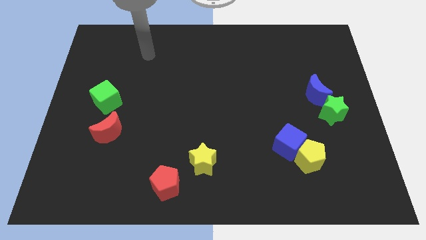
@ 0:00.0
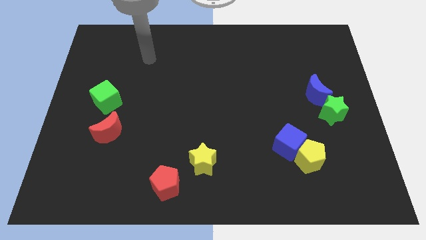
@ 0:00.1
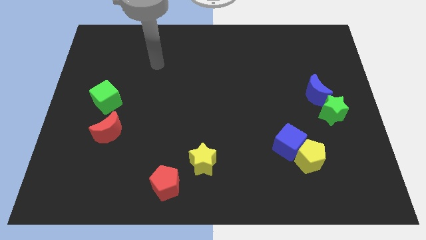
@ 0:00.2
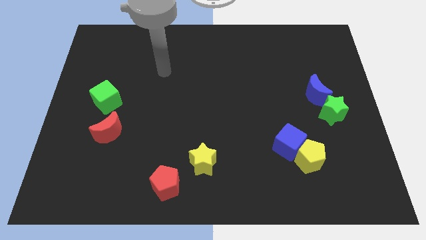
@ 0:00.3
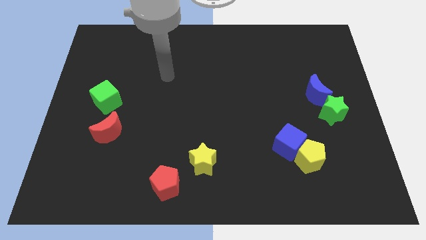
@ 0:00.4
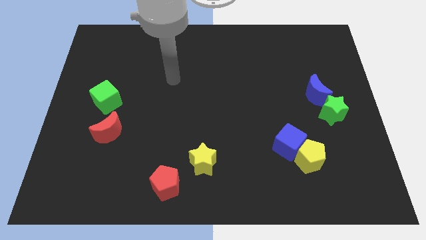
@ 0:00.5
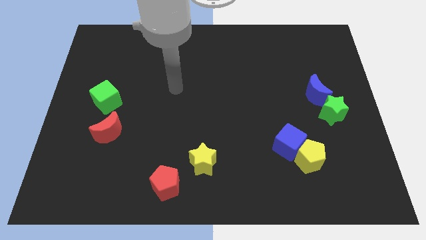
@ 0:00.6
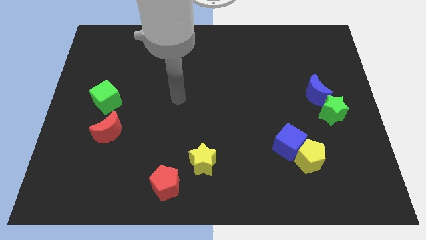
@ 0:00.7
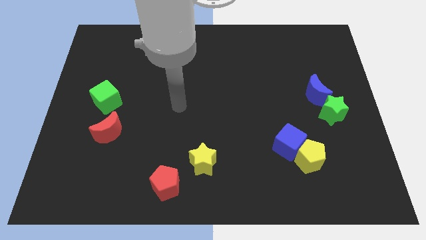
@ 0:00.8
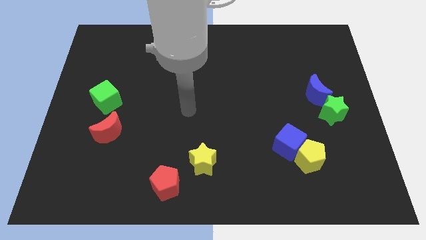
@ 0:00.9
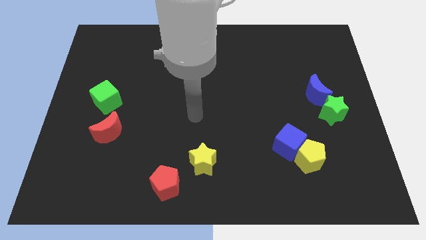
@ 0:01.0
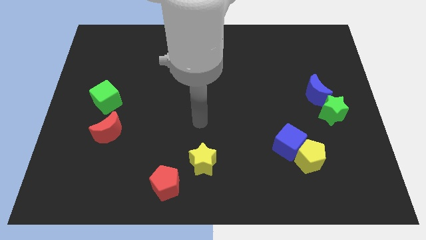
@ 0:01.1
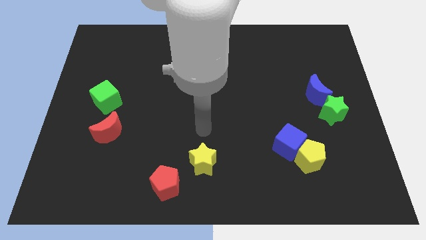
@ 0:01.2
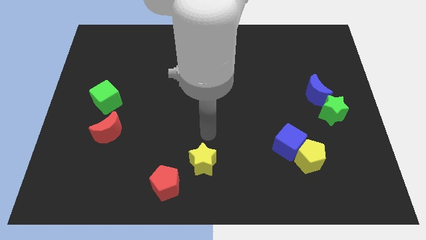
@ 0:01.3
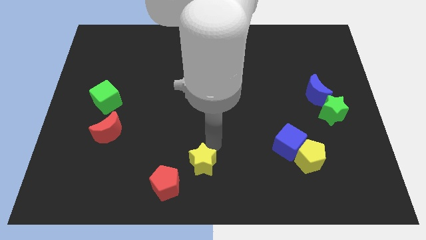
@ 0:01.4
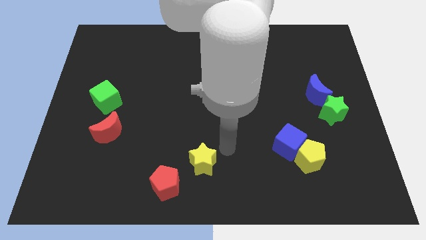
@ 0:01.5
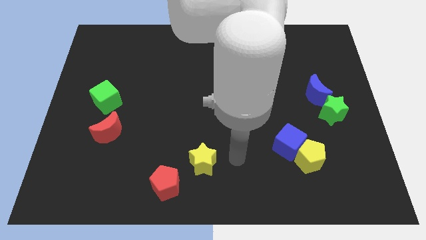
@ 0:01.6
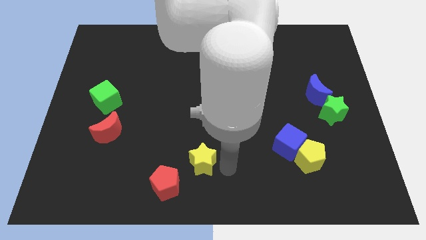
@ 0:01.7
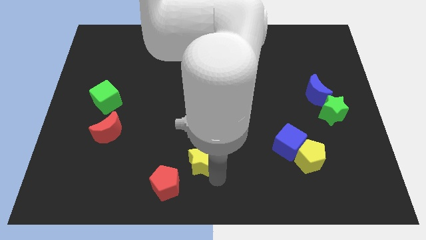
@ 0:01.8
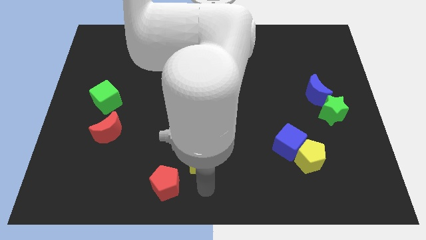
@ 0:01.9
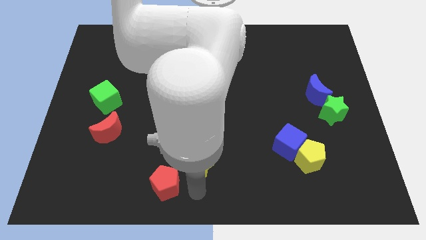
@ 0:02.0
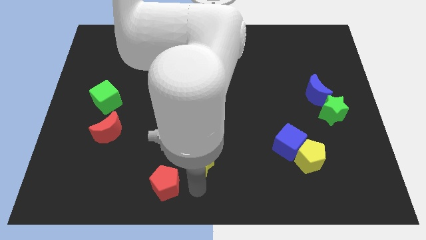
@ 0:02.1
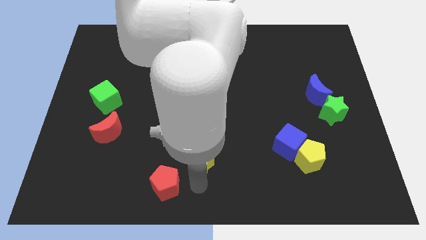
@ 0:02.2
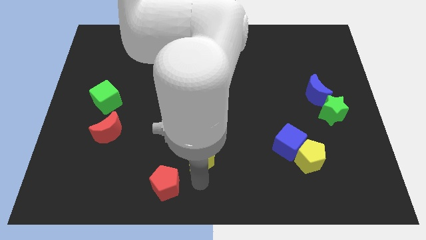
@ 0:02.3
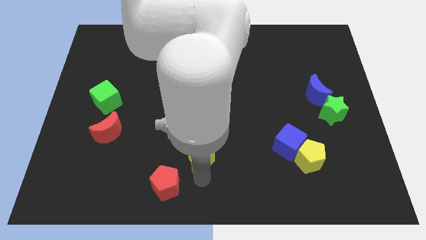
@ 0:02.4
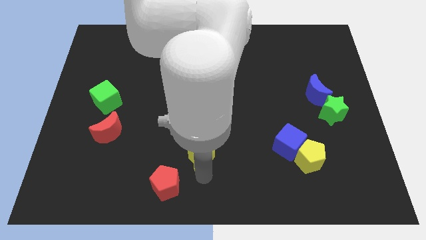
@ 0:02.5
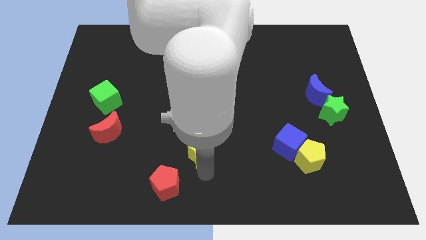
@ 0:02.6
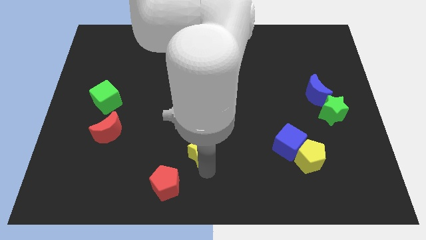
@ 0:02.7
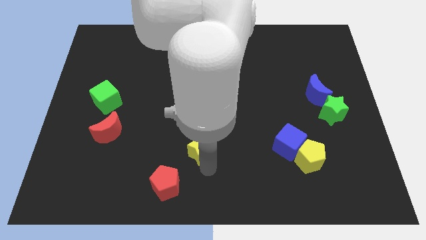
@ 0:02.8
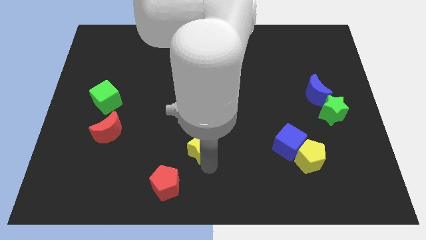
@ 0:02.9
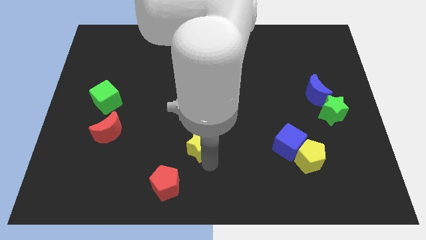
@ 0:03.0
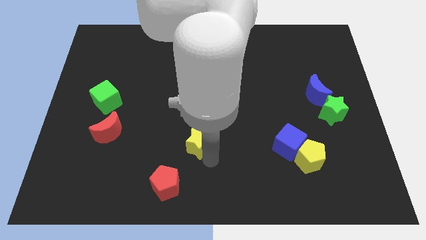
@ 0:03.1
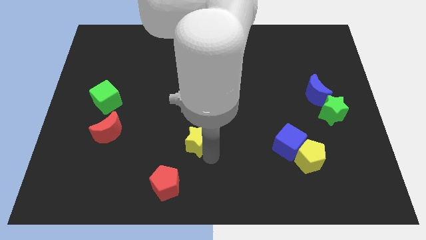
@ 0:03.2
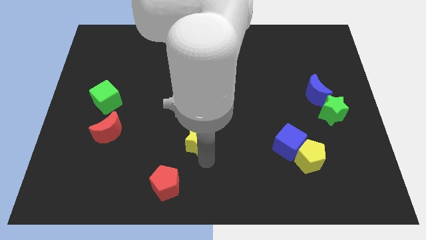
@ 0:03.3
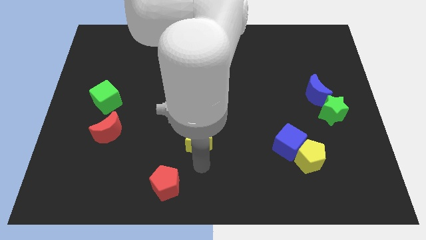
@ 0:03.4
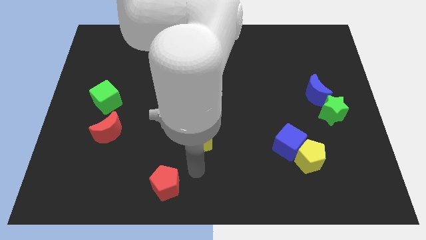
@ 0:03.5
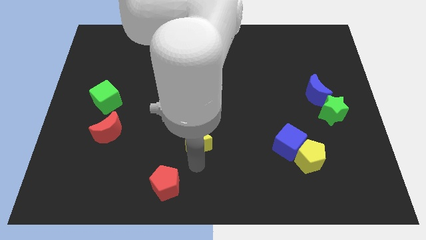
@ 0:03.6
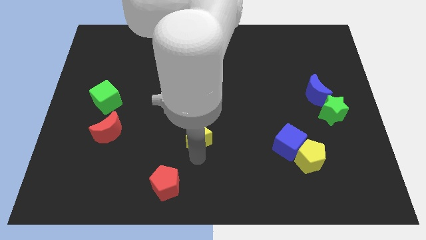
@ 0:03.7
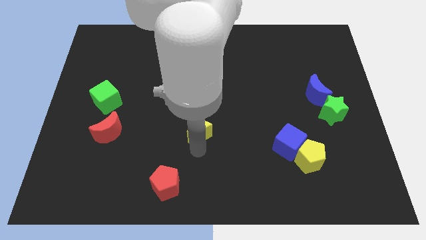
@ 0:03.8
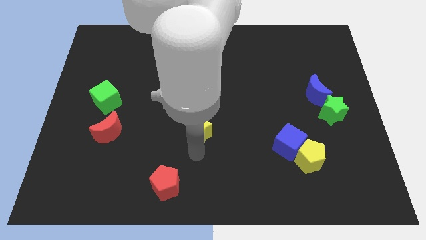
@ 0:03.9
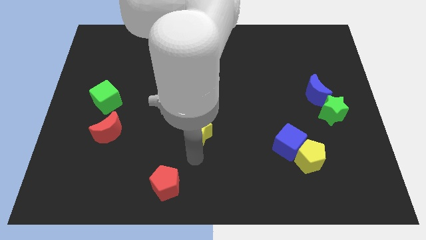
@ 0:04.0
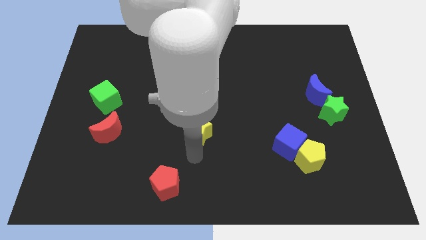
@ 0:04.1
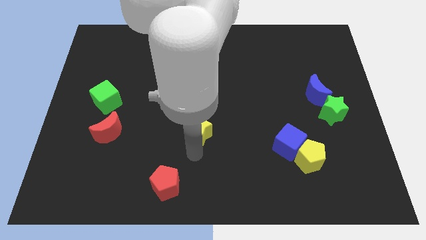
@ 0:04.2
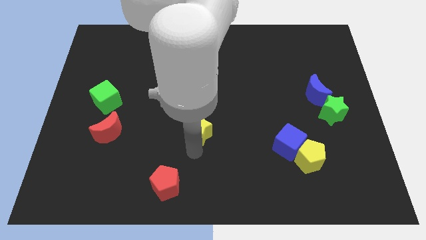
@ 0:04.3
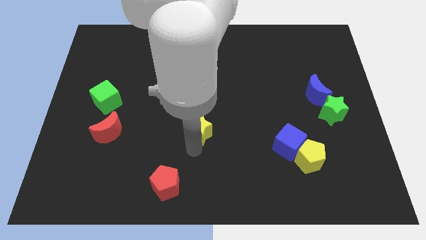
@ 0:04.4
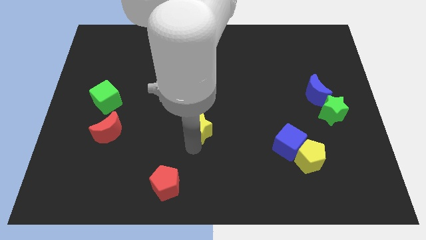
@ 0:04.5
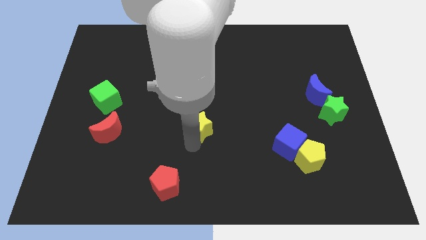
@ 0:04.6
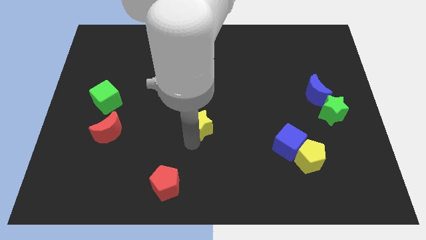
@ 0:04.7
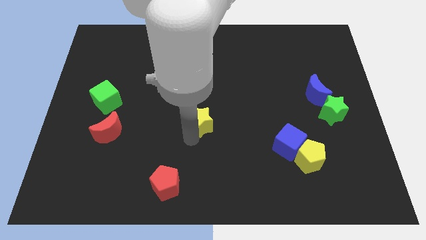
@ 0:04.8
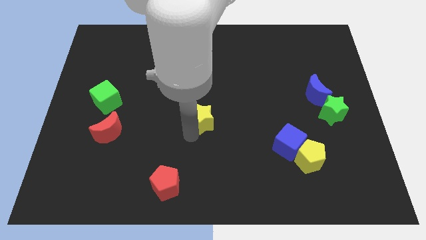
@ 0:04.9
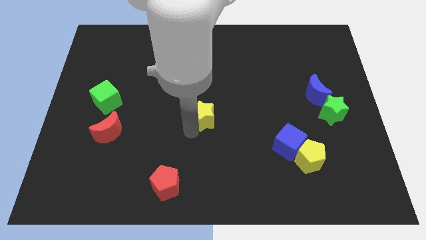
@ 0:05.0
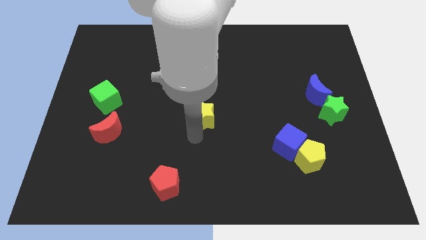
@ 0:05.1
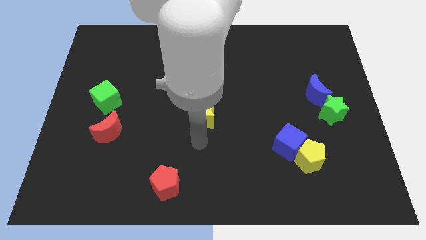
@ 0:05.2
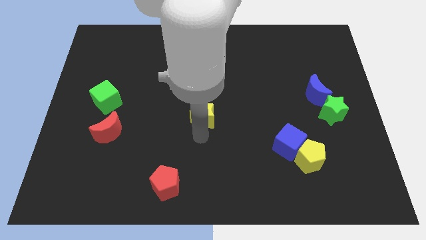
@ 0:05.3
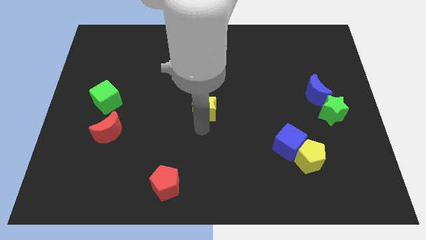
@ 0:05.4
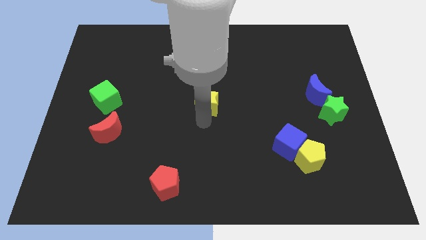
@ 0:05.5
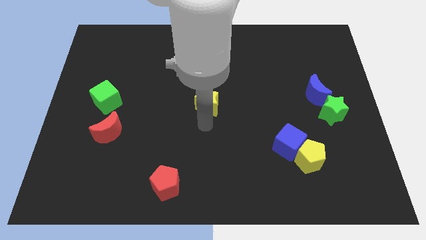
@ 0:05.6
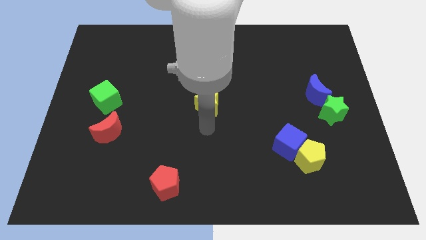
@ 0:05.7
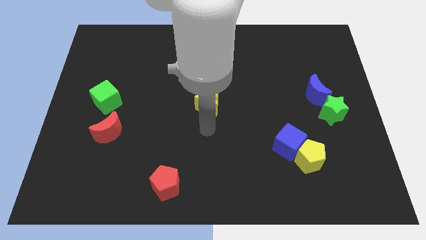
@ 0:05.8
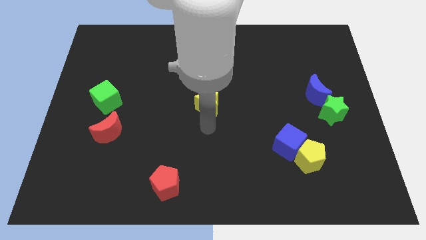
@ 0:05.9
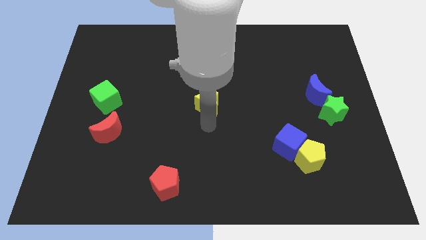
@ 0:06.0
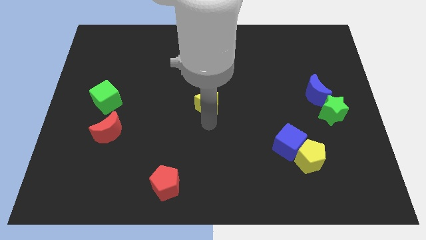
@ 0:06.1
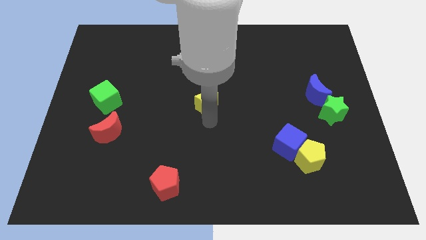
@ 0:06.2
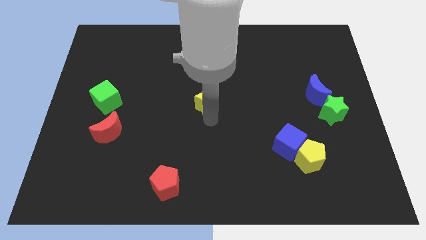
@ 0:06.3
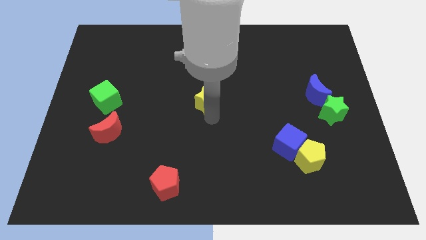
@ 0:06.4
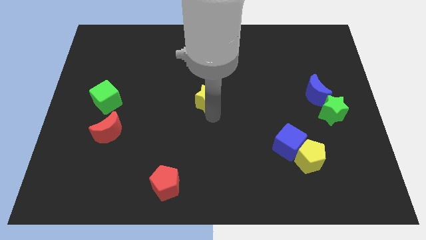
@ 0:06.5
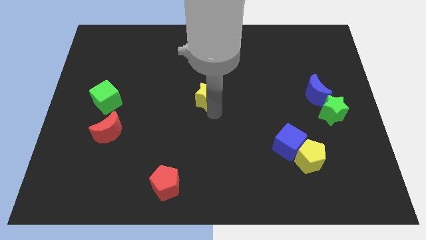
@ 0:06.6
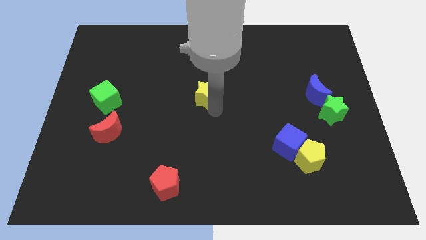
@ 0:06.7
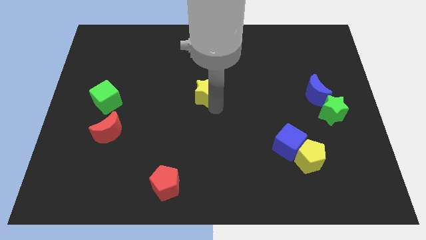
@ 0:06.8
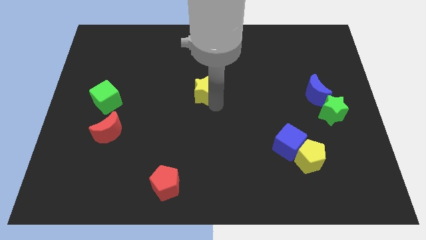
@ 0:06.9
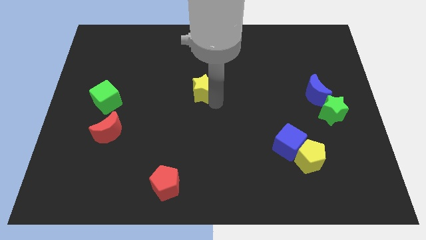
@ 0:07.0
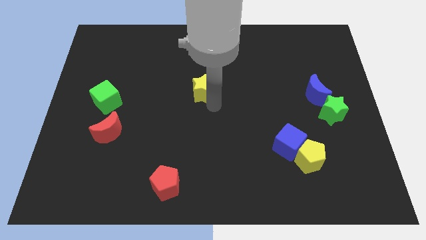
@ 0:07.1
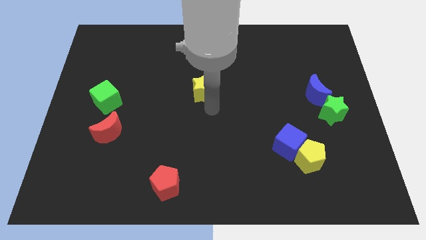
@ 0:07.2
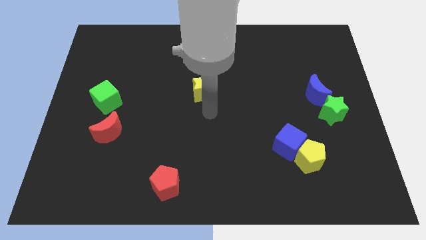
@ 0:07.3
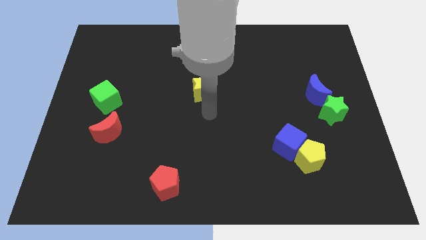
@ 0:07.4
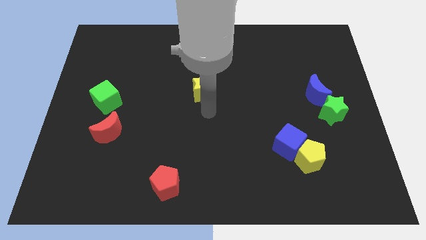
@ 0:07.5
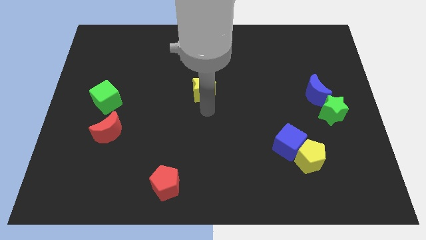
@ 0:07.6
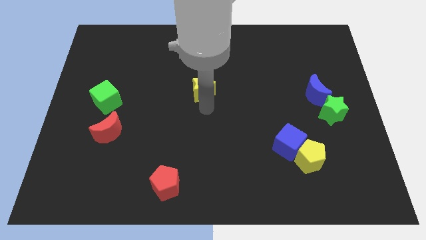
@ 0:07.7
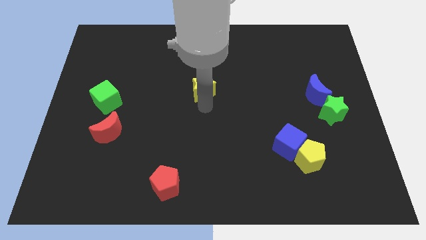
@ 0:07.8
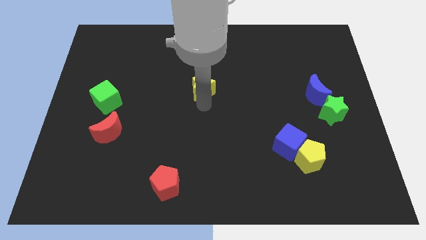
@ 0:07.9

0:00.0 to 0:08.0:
slide the yellow star upwards
